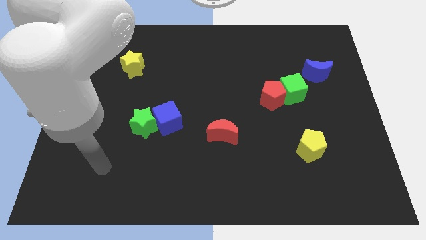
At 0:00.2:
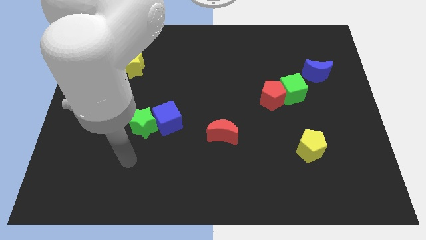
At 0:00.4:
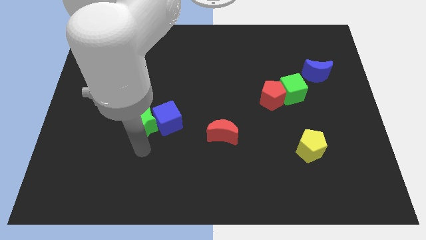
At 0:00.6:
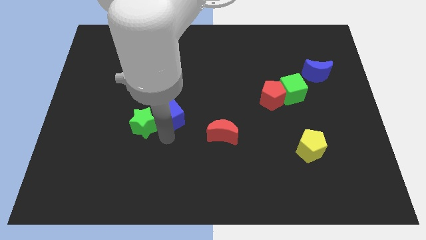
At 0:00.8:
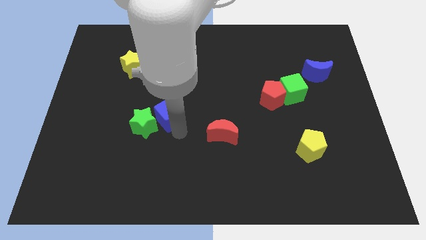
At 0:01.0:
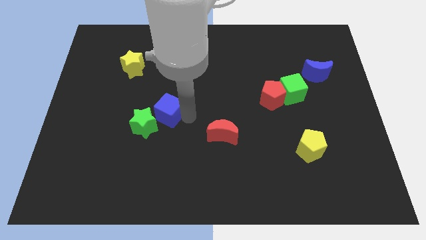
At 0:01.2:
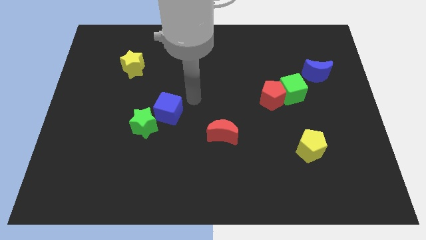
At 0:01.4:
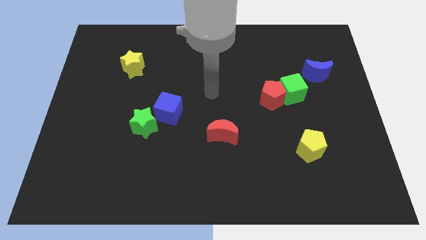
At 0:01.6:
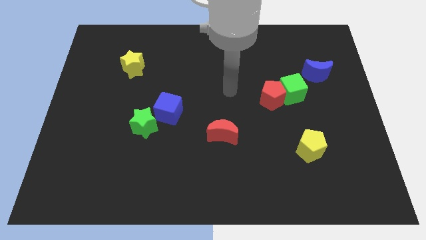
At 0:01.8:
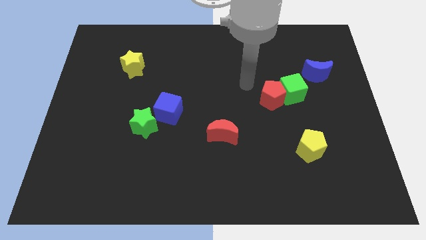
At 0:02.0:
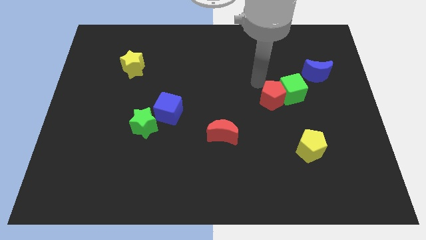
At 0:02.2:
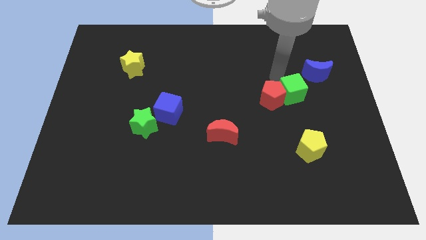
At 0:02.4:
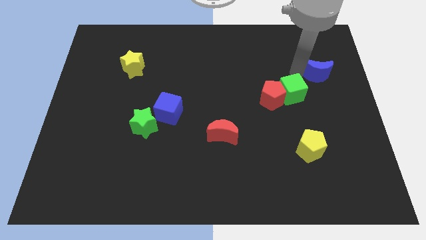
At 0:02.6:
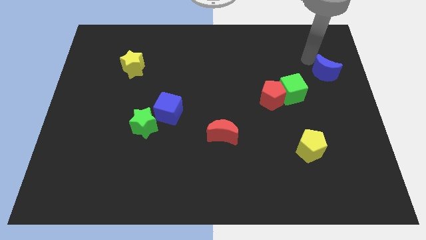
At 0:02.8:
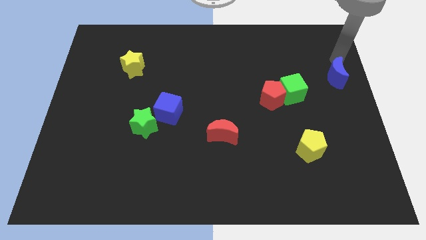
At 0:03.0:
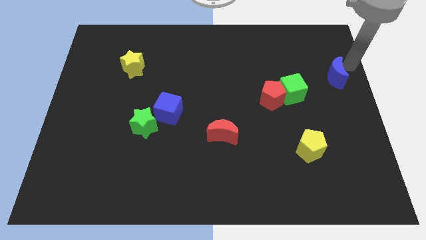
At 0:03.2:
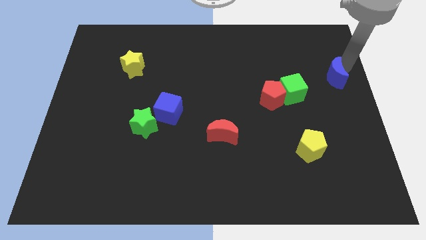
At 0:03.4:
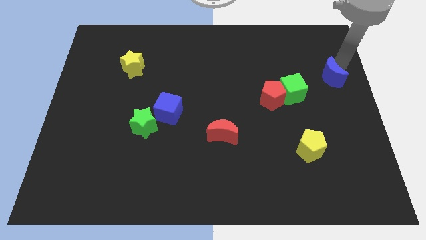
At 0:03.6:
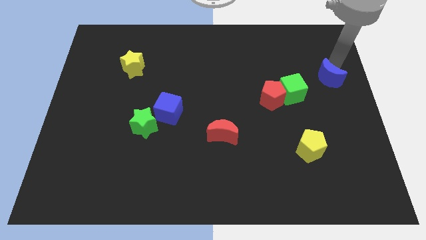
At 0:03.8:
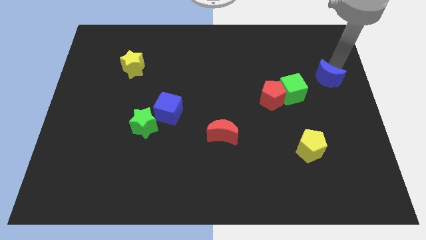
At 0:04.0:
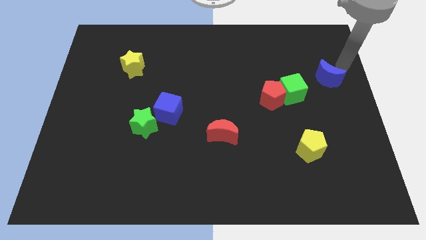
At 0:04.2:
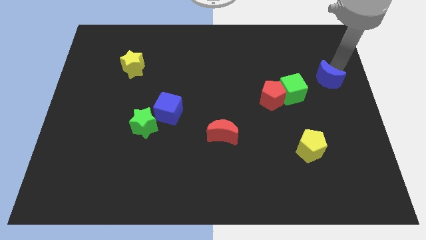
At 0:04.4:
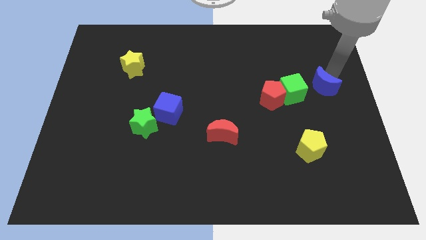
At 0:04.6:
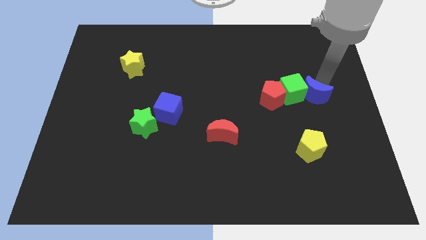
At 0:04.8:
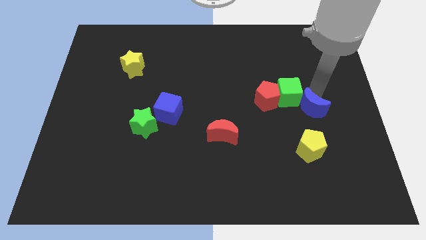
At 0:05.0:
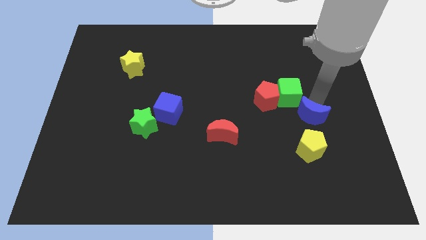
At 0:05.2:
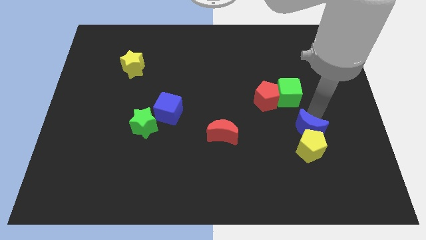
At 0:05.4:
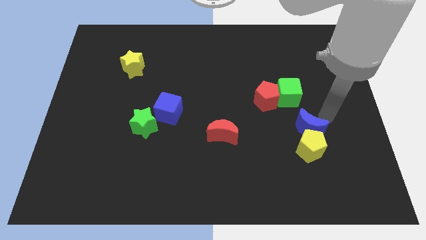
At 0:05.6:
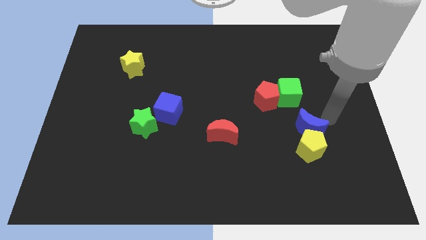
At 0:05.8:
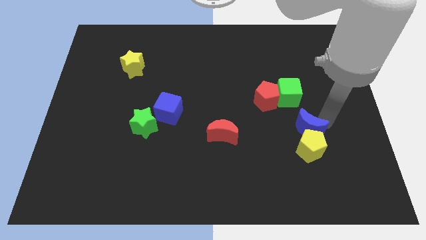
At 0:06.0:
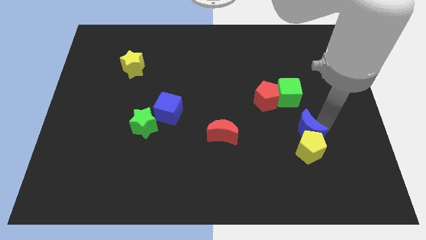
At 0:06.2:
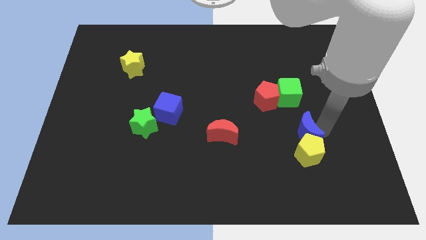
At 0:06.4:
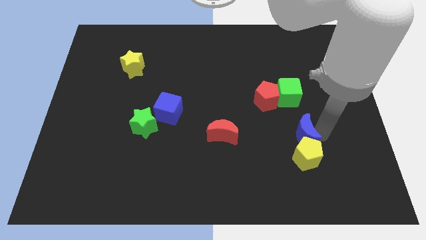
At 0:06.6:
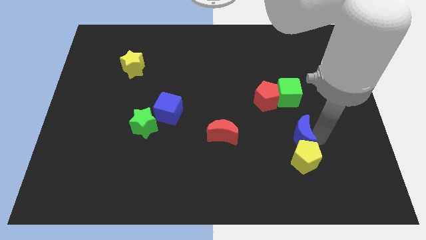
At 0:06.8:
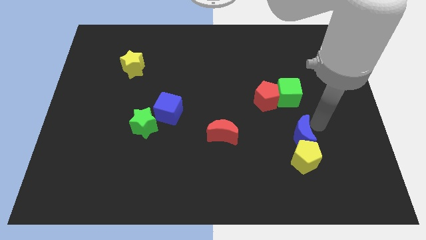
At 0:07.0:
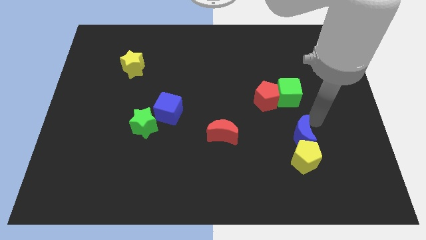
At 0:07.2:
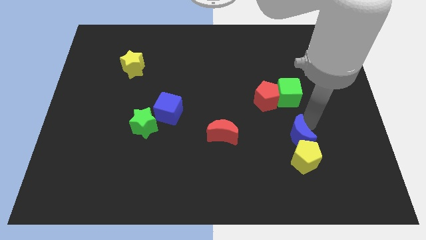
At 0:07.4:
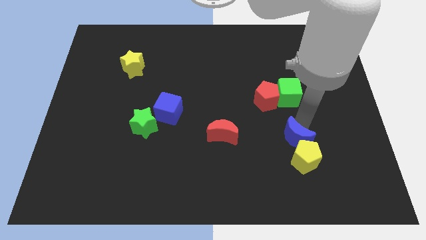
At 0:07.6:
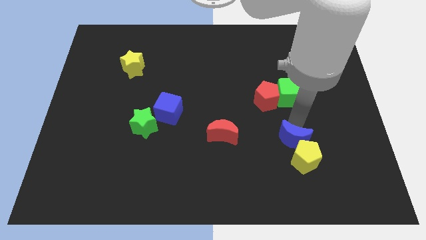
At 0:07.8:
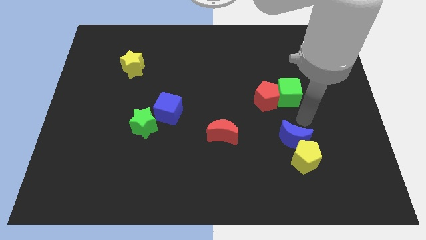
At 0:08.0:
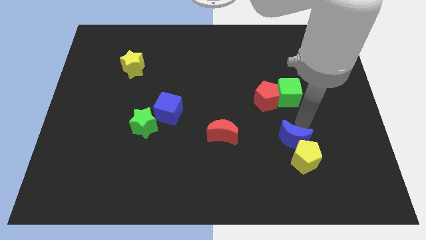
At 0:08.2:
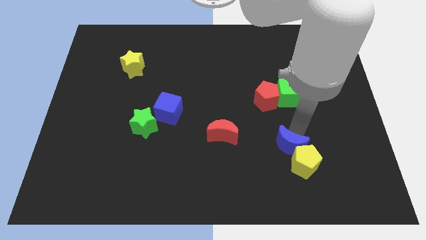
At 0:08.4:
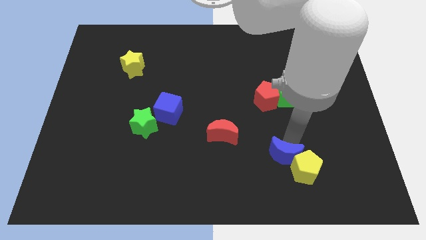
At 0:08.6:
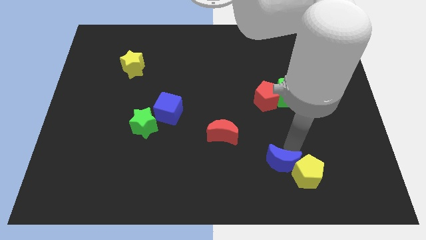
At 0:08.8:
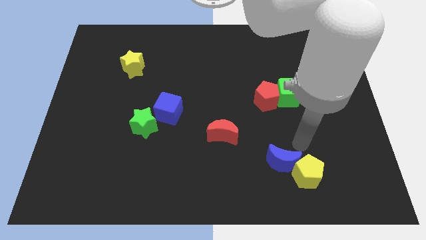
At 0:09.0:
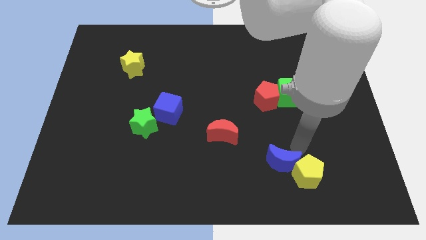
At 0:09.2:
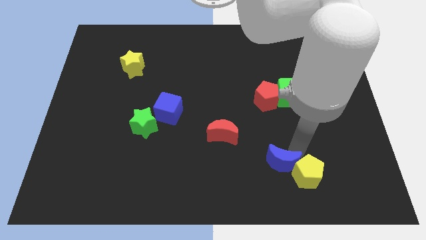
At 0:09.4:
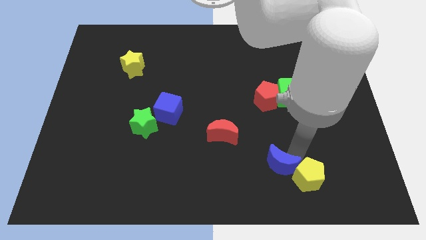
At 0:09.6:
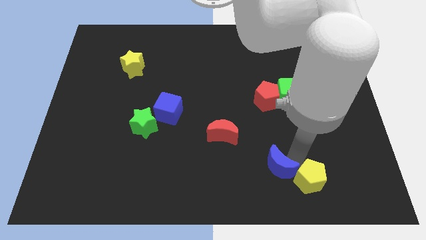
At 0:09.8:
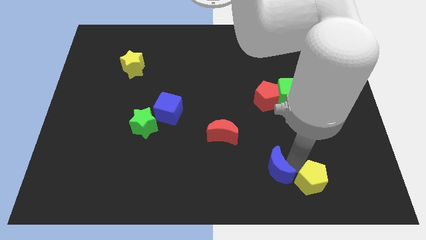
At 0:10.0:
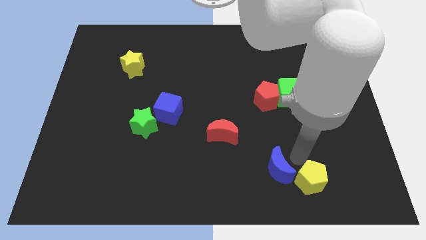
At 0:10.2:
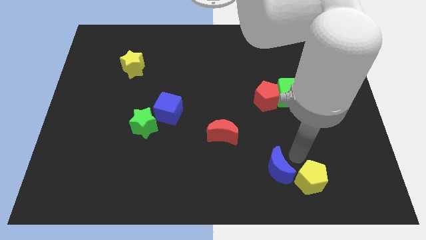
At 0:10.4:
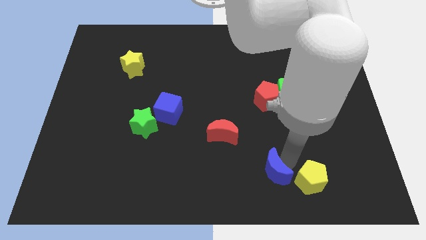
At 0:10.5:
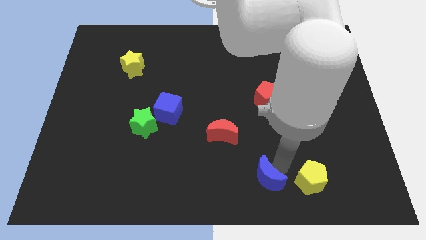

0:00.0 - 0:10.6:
put the blue moon to the bottom

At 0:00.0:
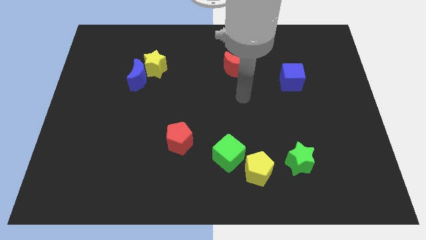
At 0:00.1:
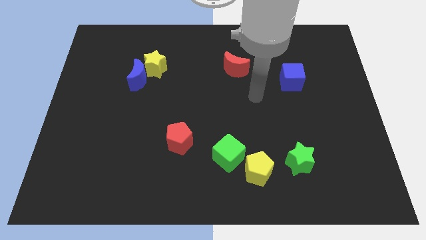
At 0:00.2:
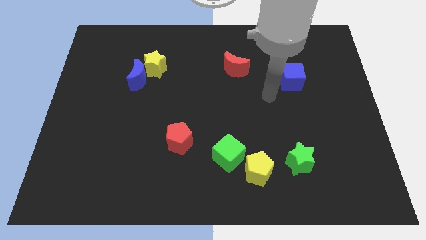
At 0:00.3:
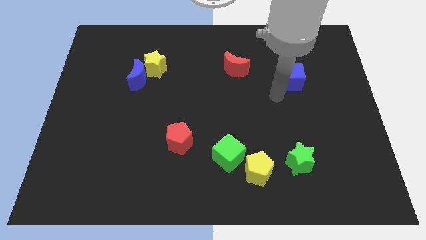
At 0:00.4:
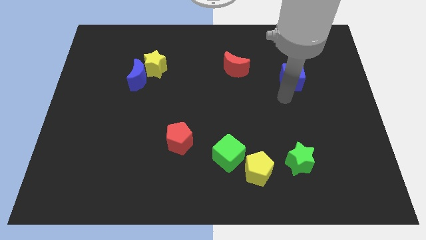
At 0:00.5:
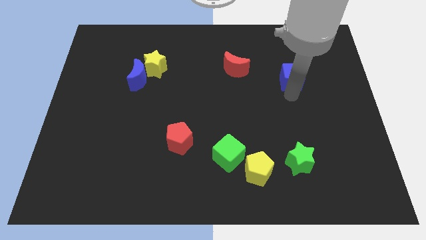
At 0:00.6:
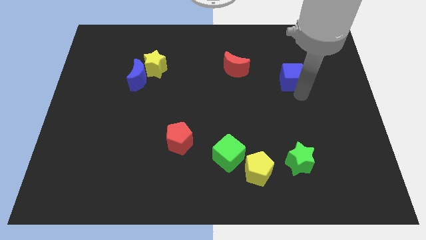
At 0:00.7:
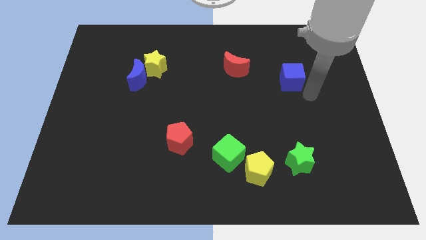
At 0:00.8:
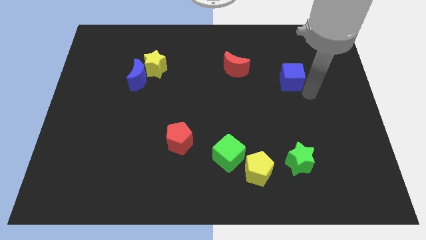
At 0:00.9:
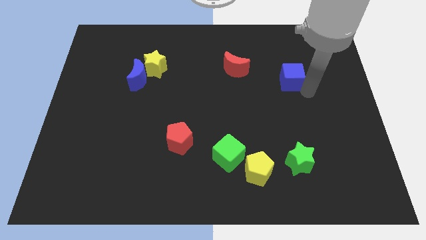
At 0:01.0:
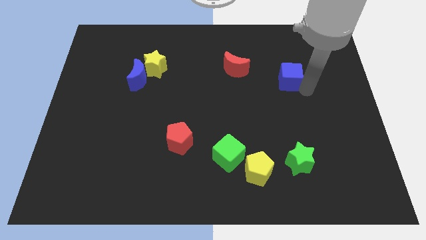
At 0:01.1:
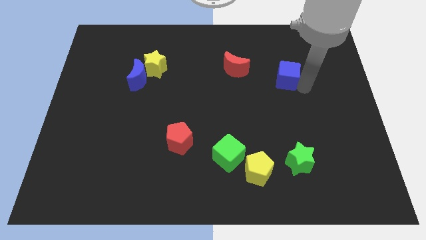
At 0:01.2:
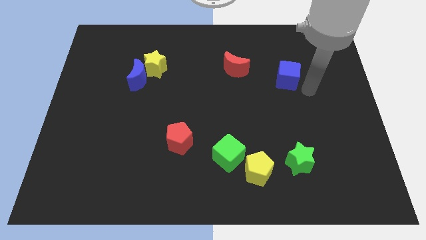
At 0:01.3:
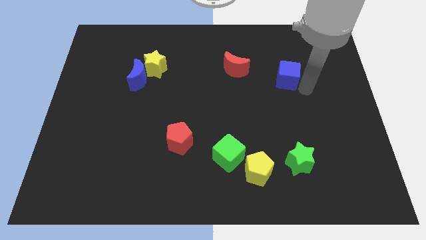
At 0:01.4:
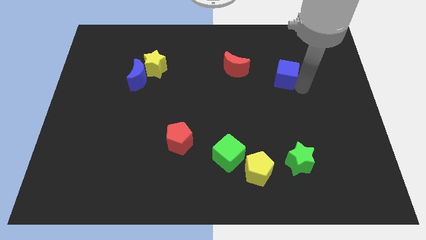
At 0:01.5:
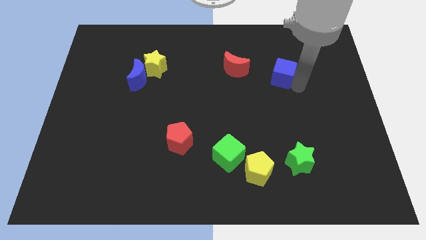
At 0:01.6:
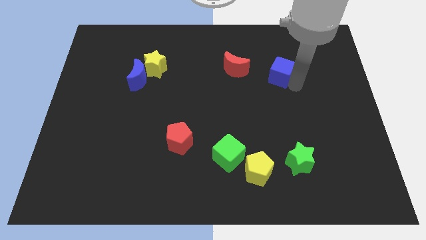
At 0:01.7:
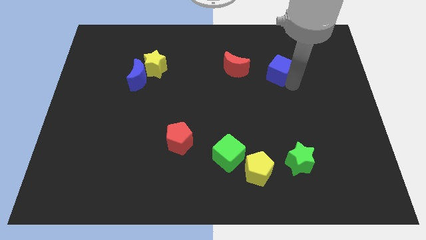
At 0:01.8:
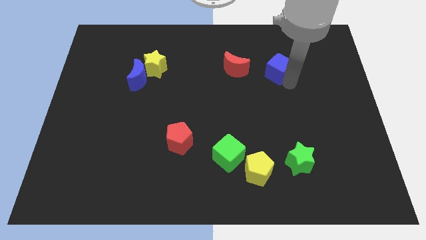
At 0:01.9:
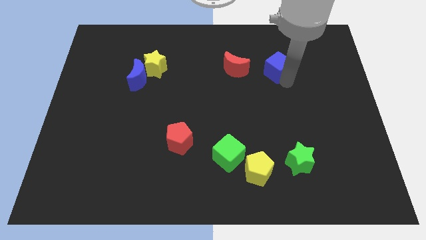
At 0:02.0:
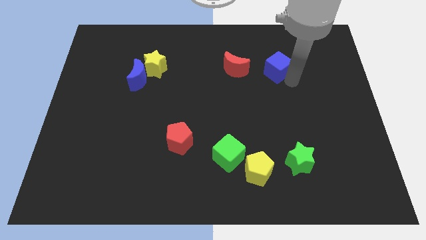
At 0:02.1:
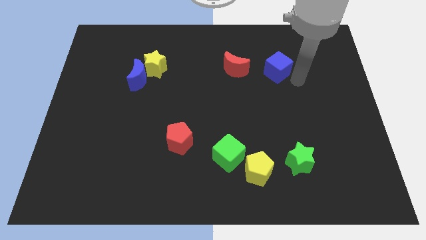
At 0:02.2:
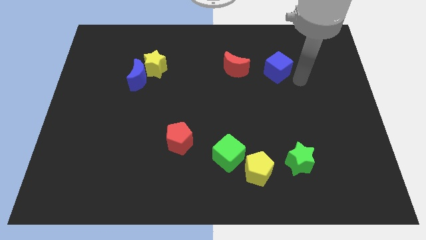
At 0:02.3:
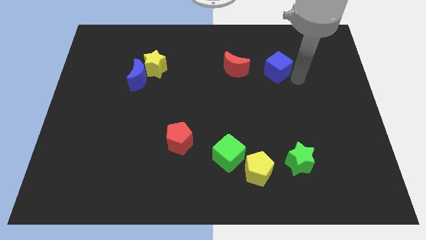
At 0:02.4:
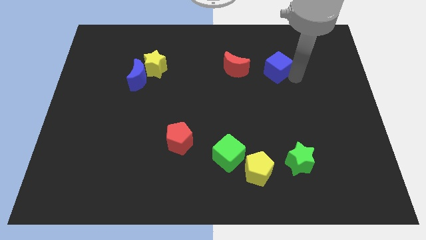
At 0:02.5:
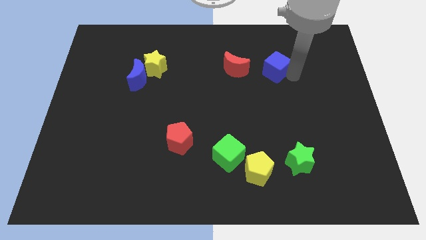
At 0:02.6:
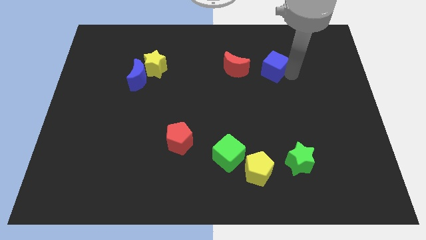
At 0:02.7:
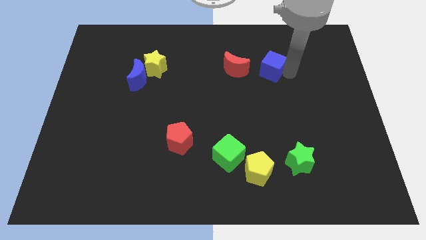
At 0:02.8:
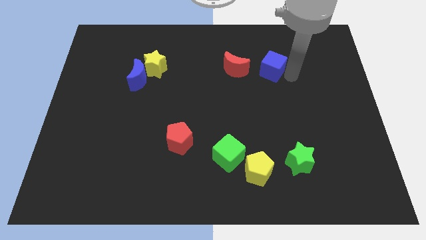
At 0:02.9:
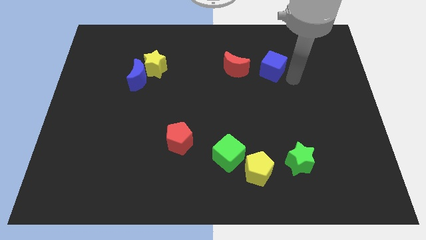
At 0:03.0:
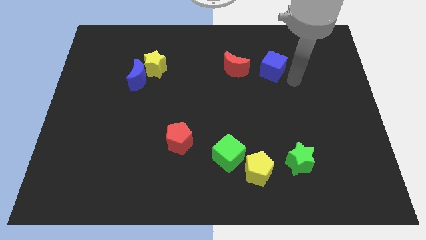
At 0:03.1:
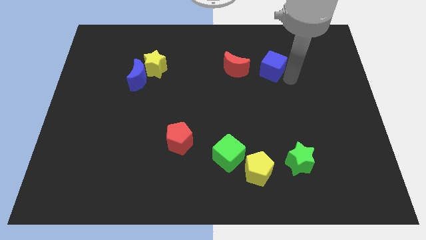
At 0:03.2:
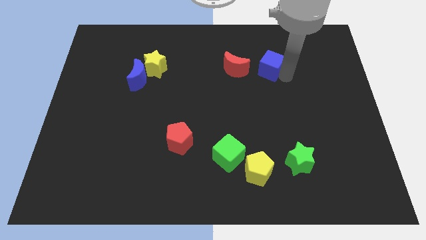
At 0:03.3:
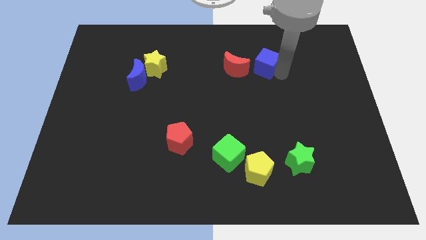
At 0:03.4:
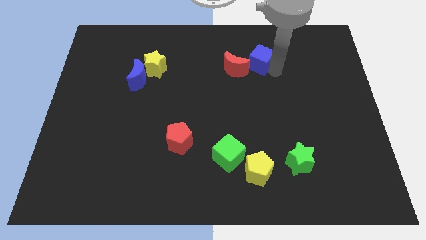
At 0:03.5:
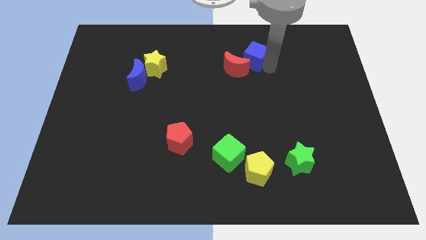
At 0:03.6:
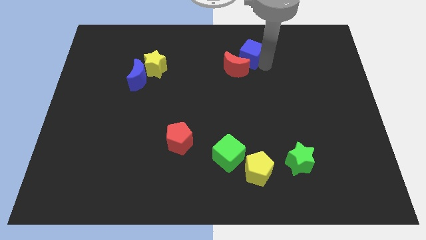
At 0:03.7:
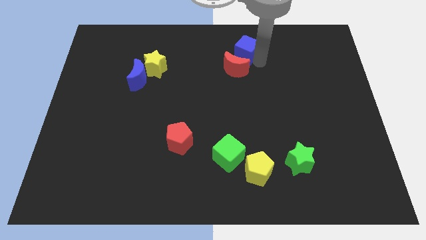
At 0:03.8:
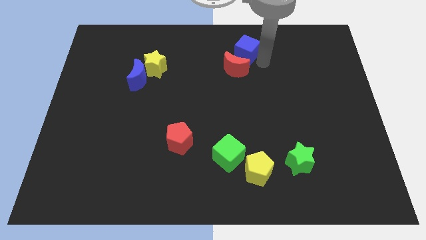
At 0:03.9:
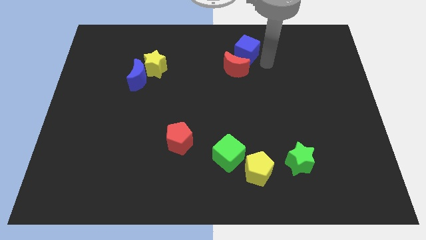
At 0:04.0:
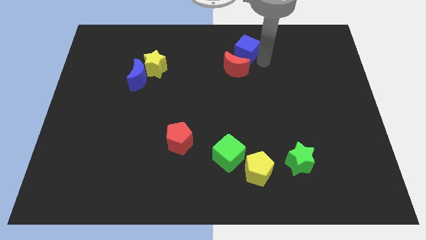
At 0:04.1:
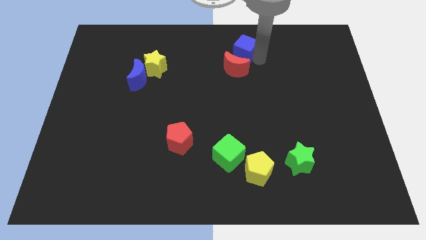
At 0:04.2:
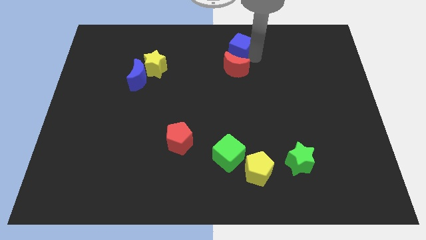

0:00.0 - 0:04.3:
put the blue cube to the top side
